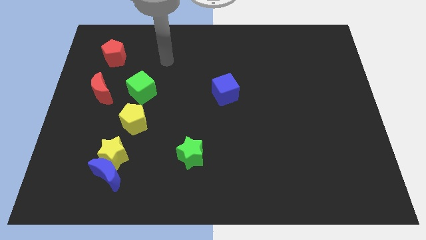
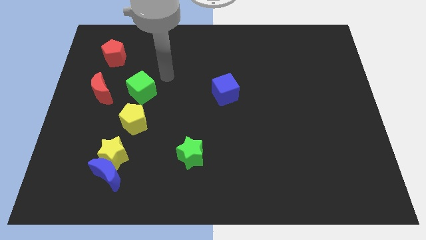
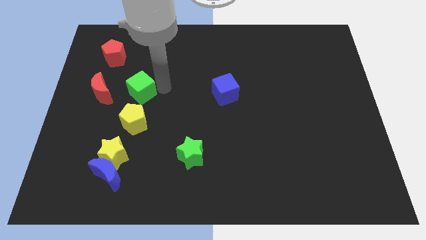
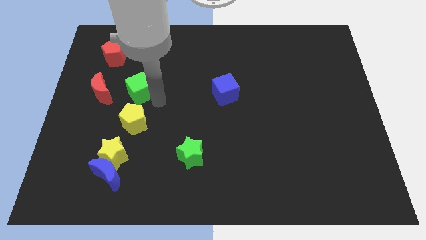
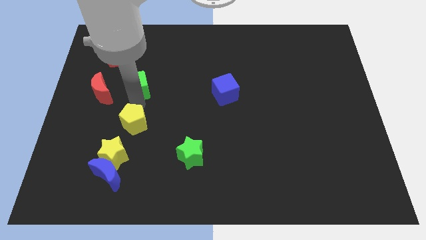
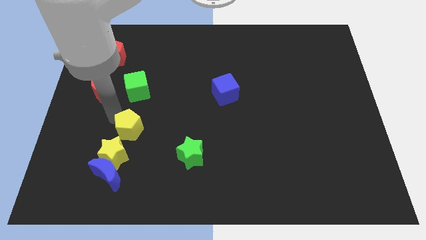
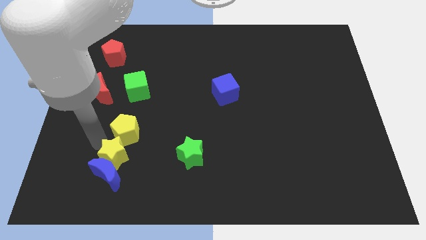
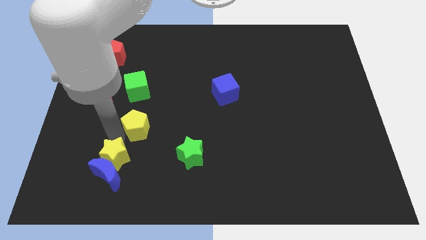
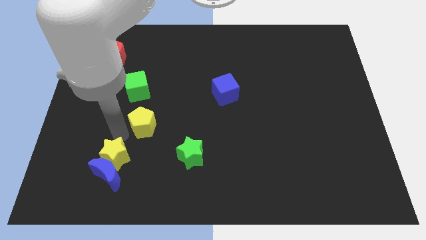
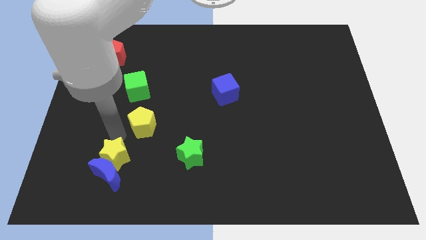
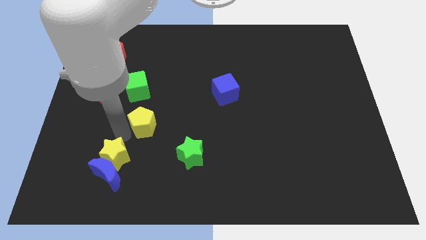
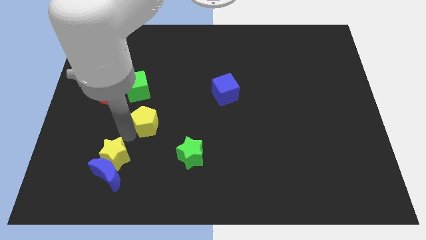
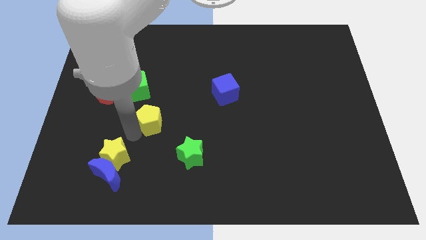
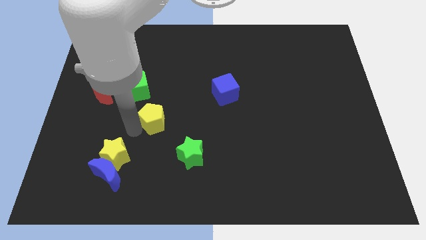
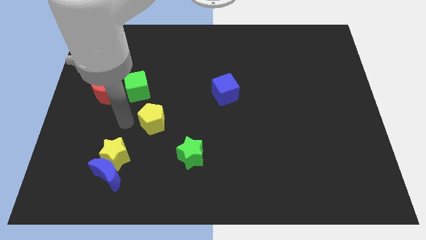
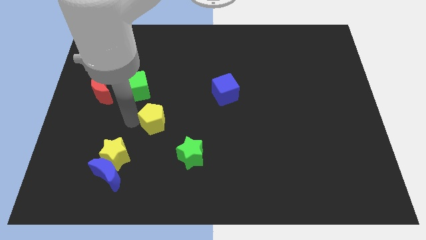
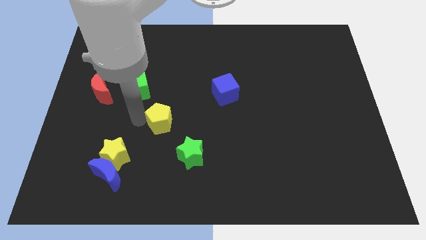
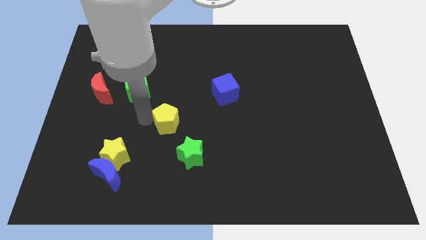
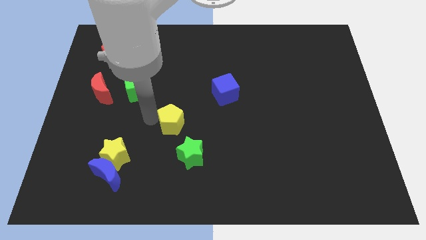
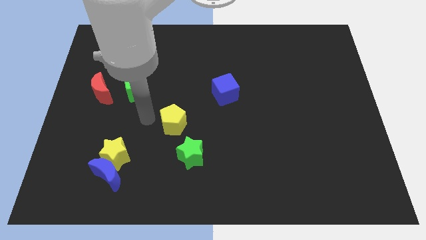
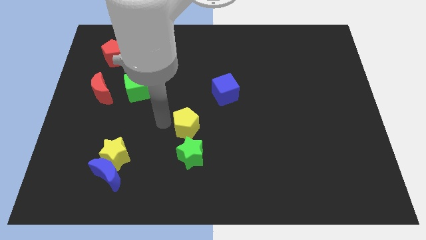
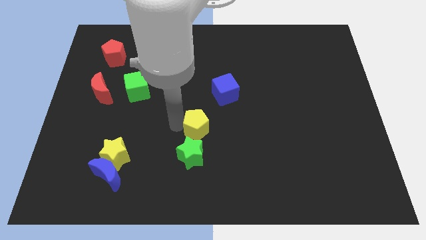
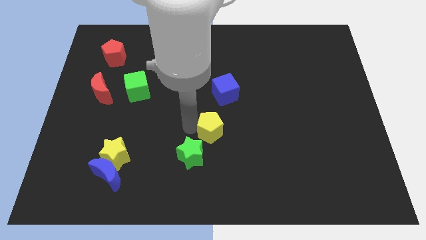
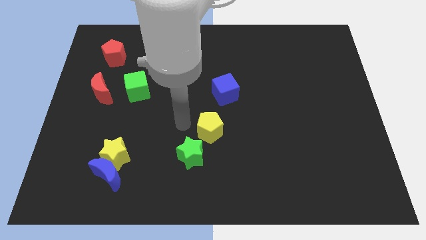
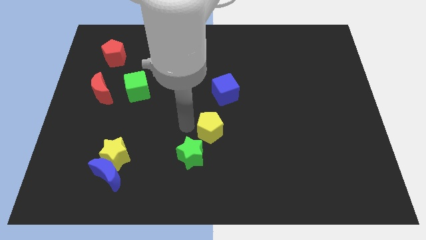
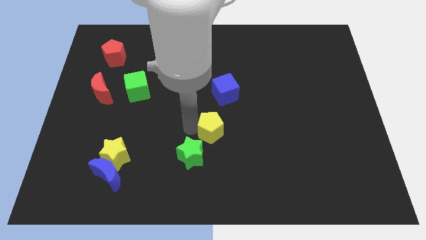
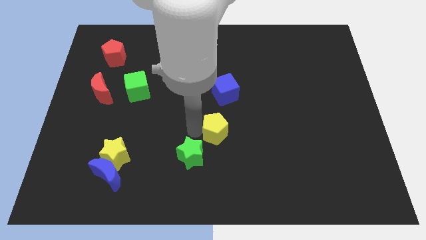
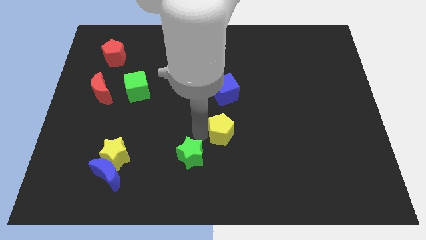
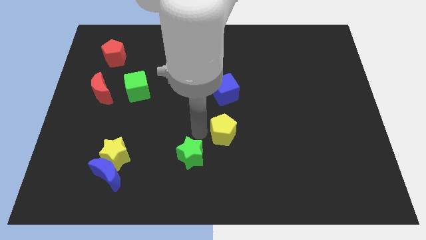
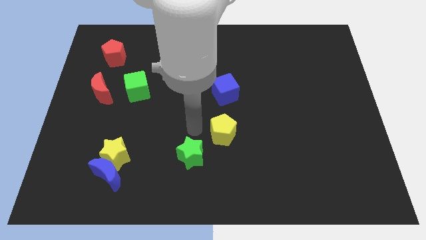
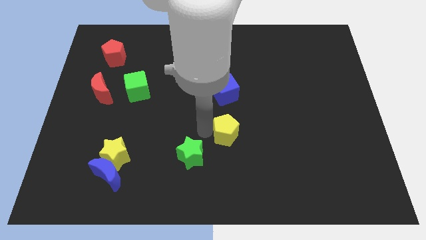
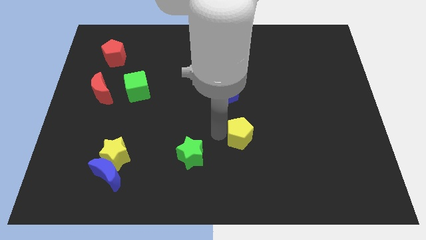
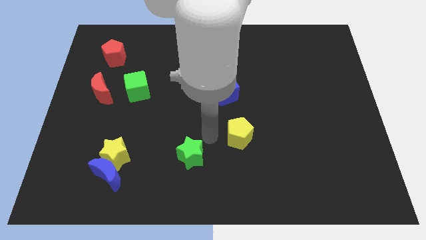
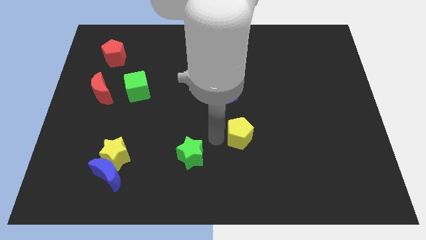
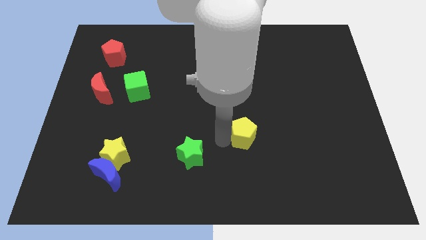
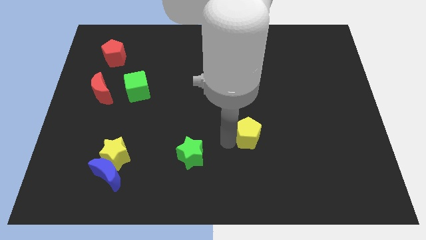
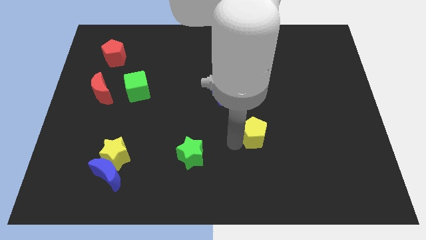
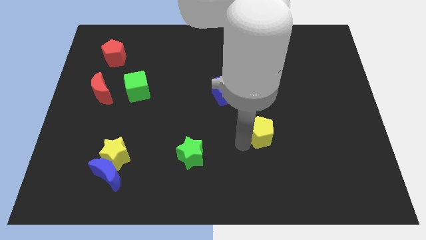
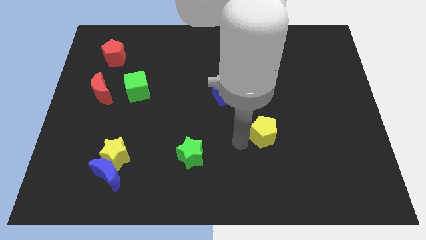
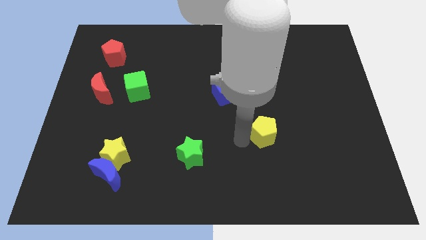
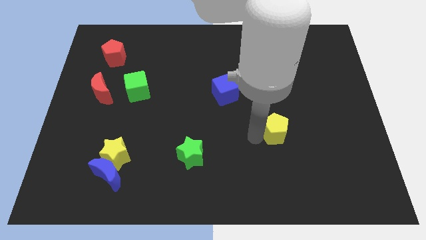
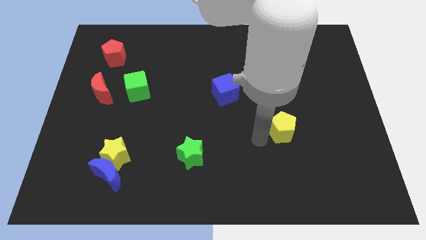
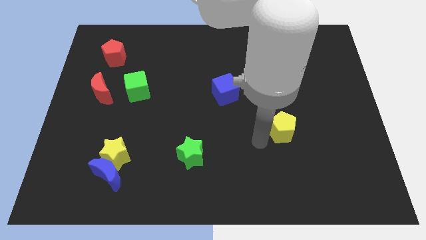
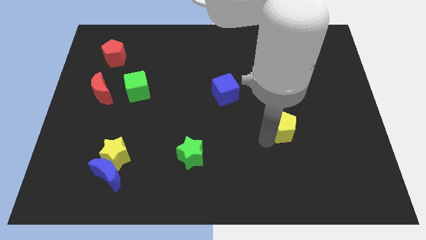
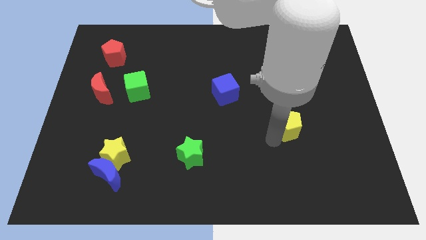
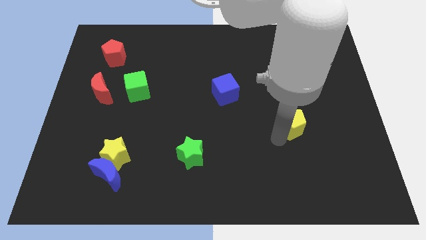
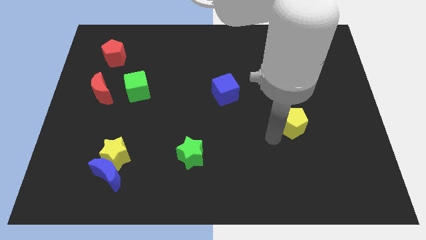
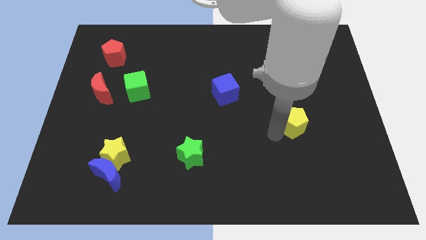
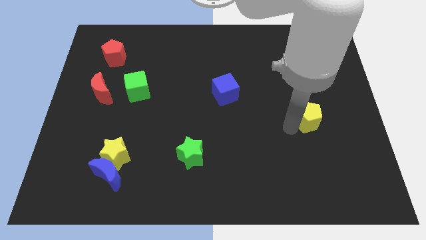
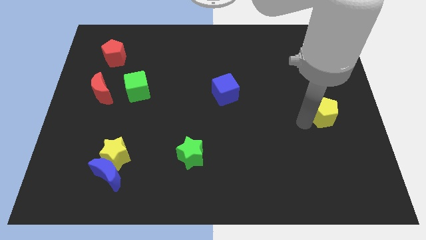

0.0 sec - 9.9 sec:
push the yellow pentagon to the right side of the board

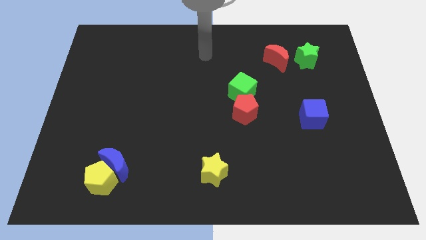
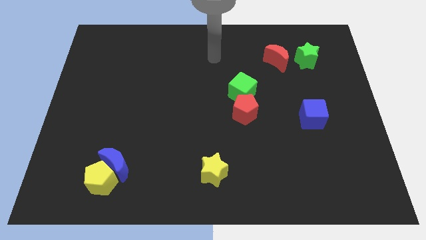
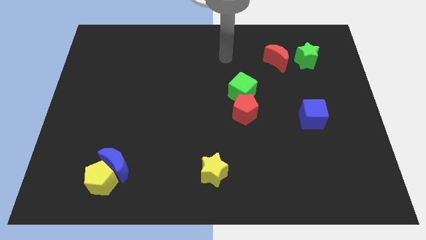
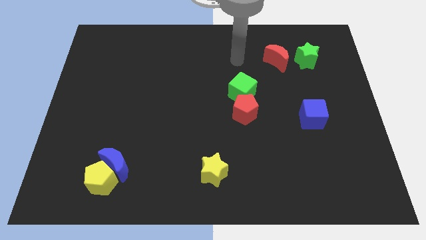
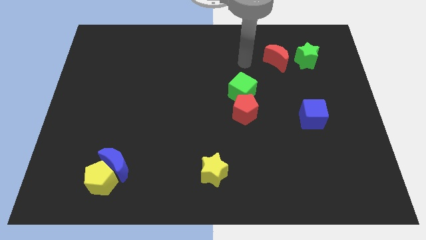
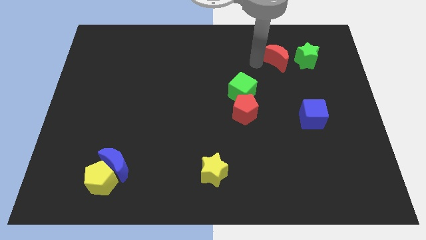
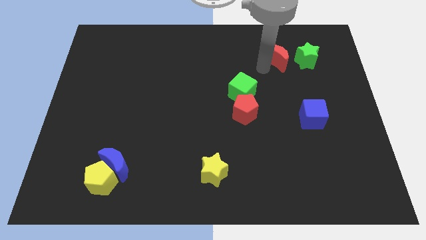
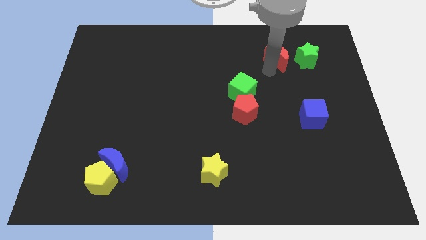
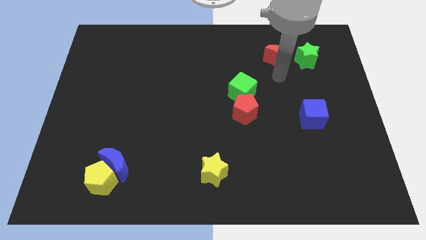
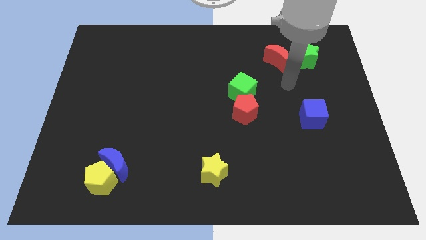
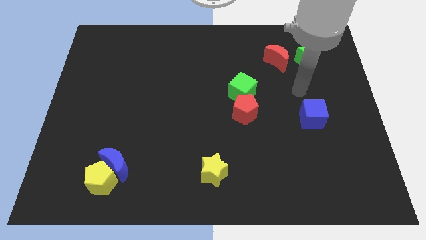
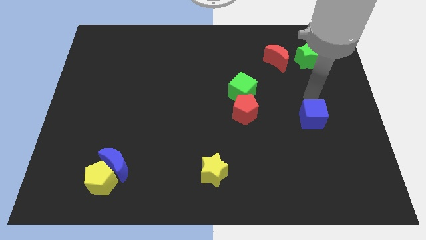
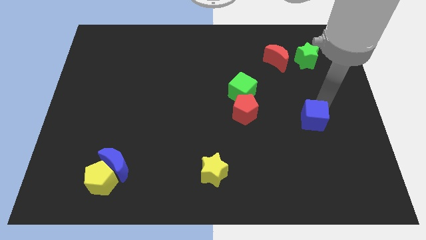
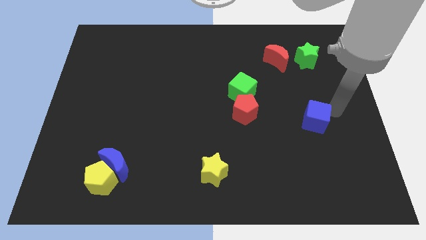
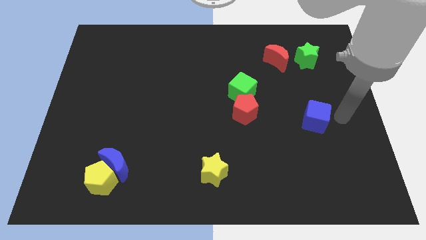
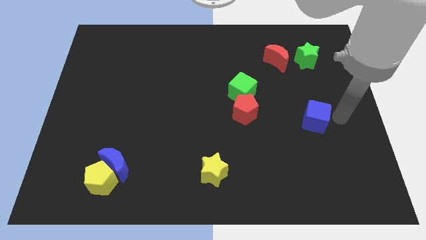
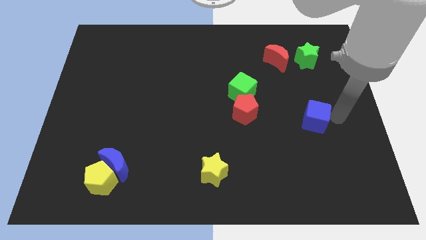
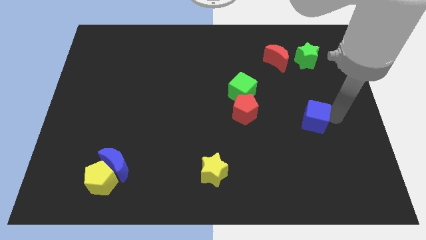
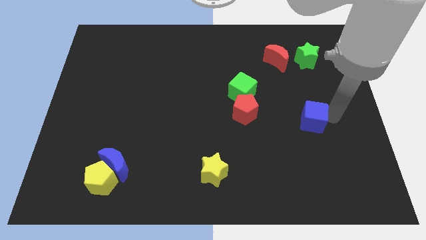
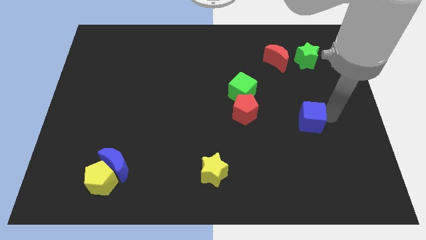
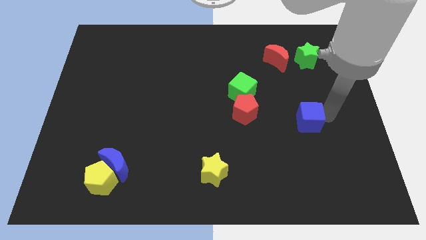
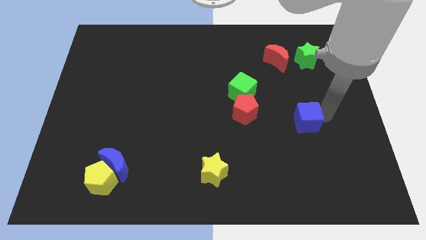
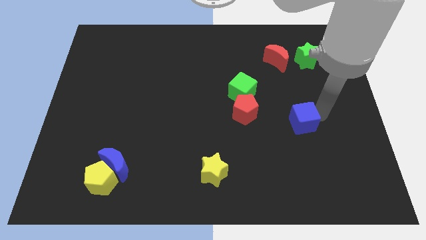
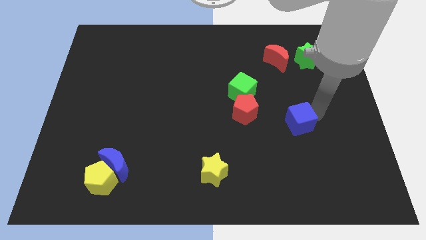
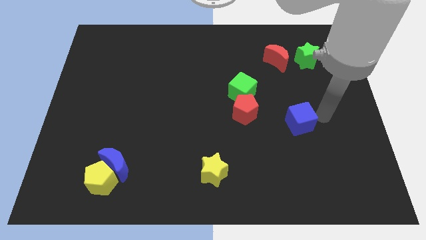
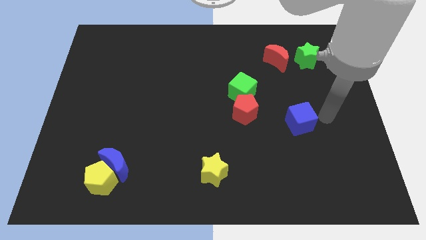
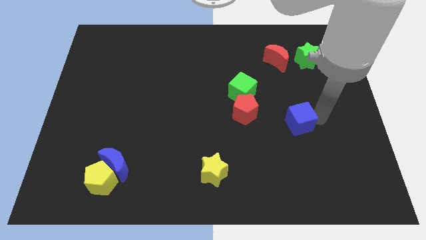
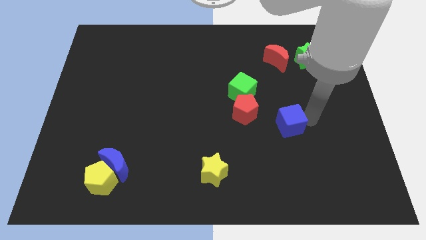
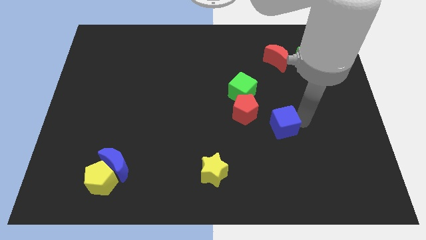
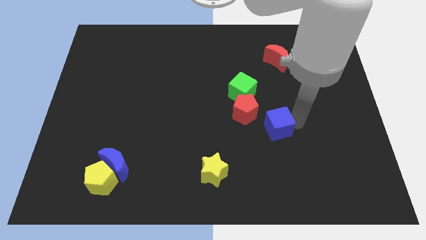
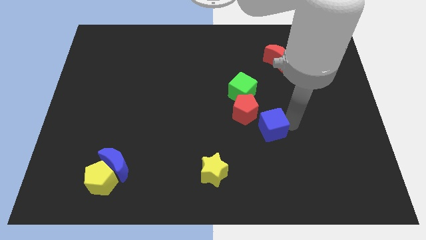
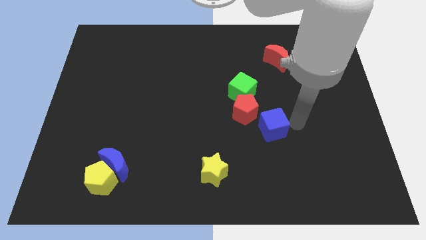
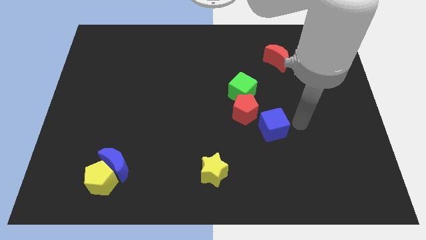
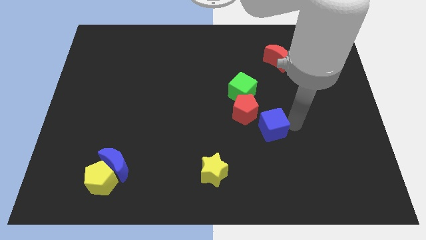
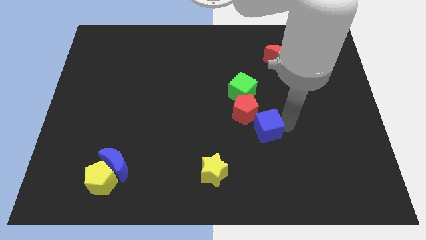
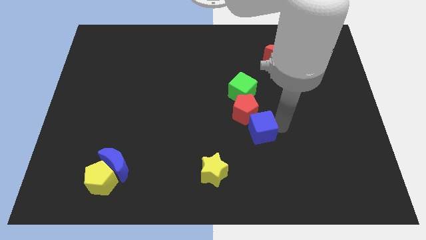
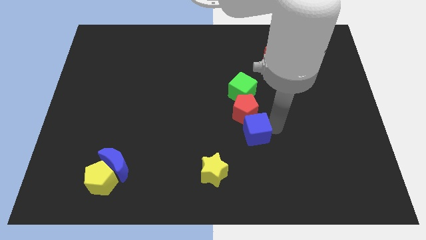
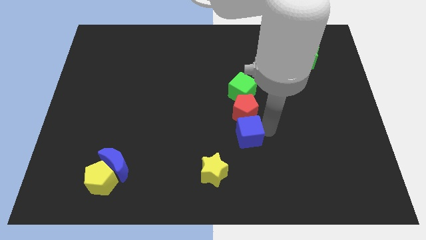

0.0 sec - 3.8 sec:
push the blue cube to the middle of the board
